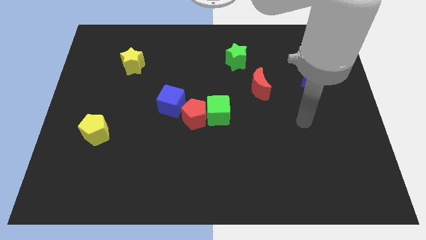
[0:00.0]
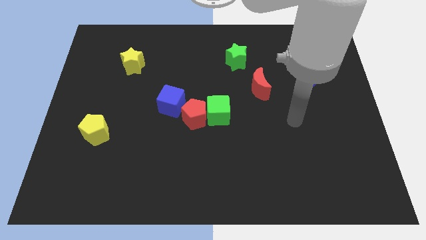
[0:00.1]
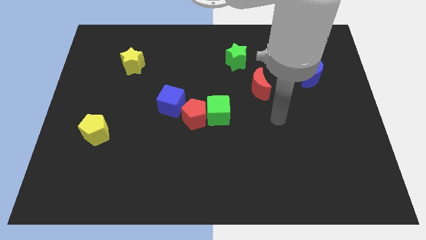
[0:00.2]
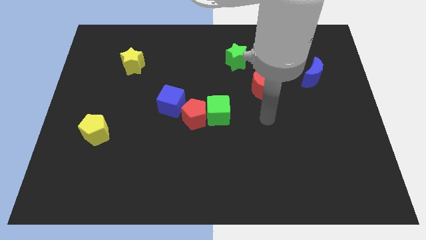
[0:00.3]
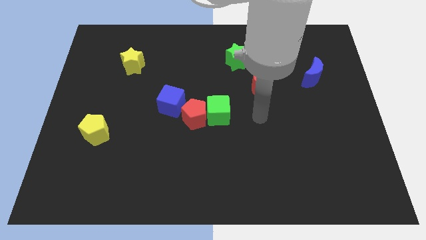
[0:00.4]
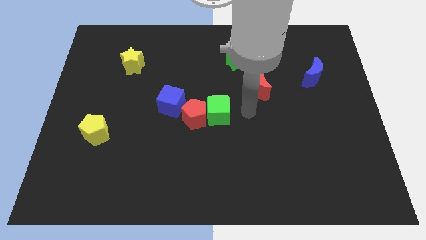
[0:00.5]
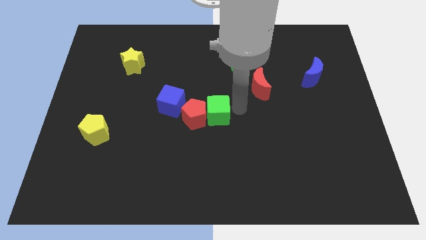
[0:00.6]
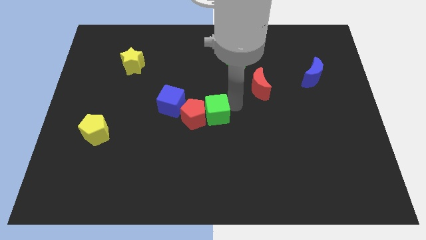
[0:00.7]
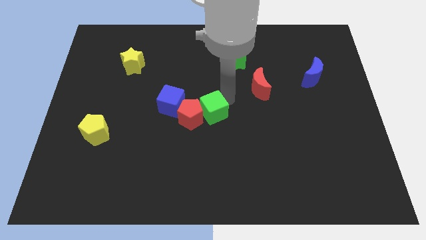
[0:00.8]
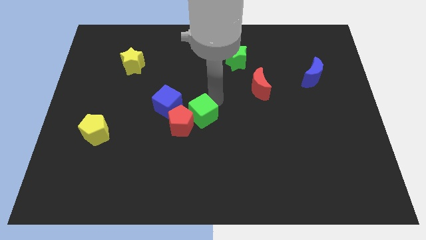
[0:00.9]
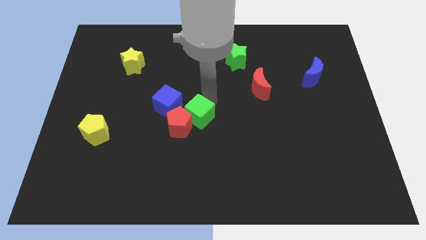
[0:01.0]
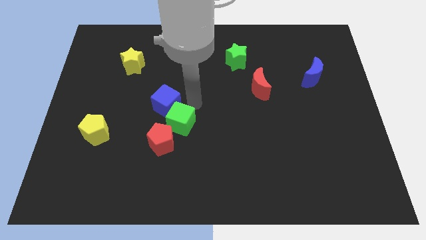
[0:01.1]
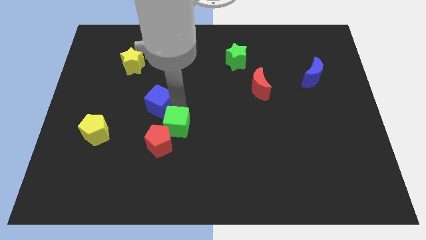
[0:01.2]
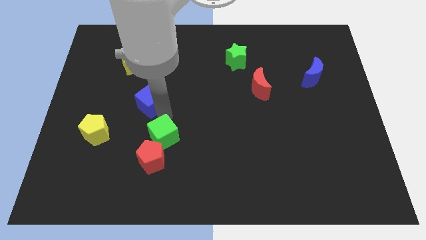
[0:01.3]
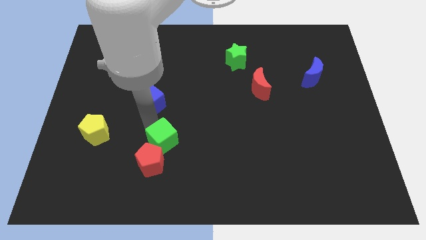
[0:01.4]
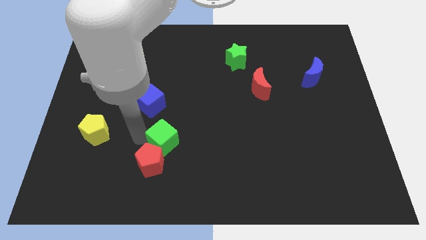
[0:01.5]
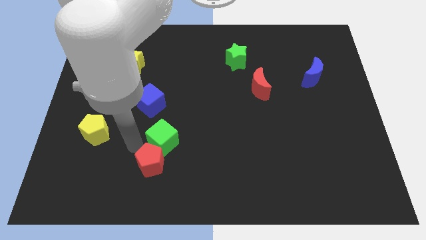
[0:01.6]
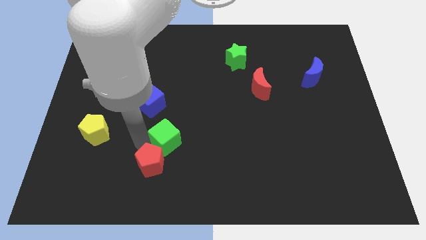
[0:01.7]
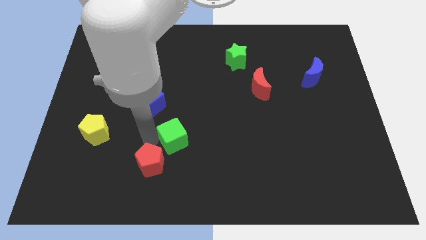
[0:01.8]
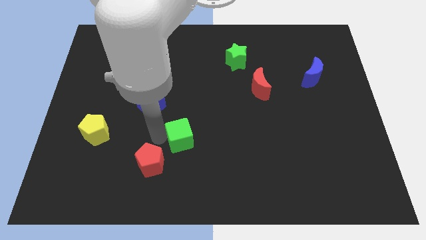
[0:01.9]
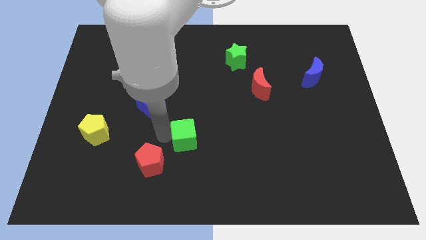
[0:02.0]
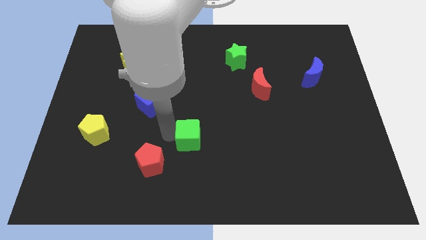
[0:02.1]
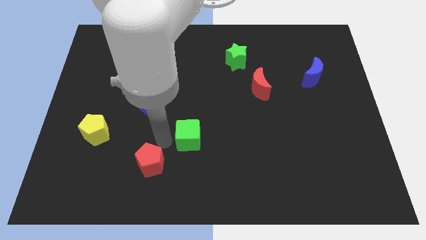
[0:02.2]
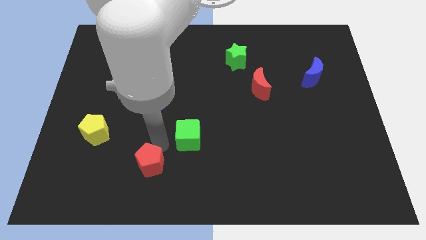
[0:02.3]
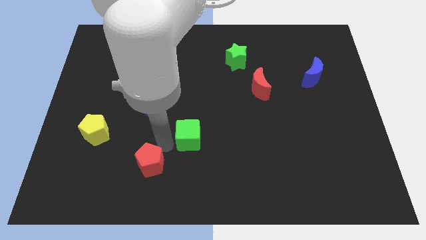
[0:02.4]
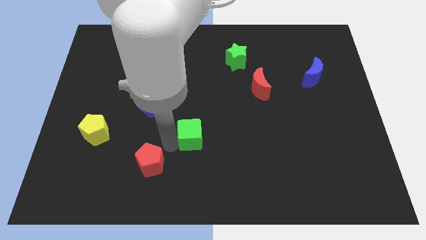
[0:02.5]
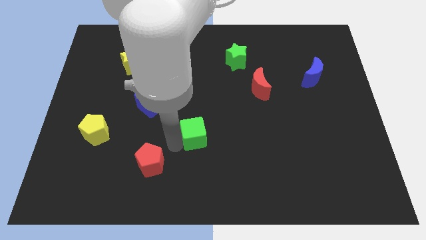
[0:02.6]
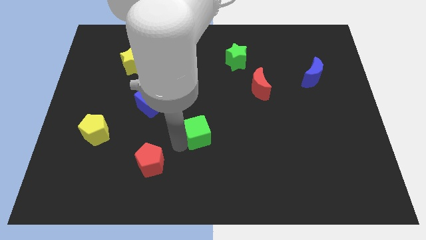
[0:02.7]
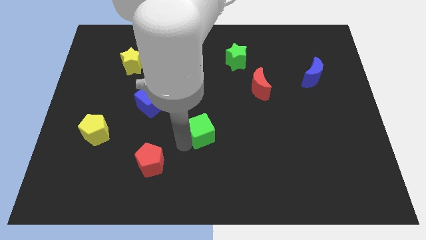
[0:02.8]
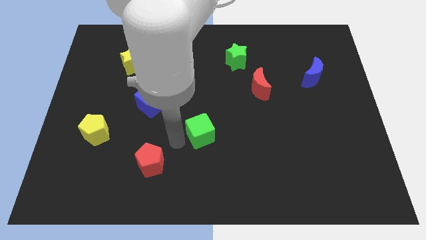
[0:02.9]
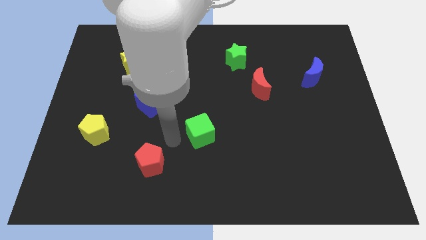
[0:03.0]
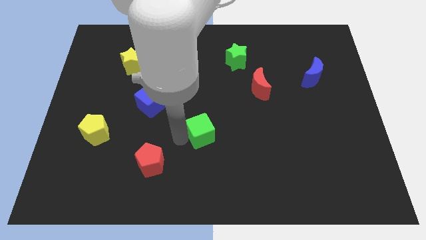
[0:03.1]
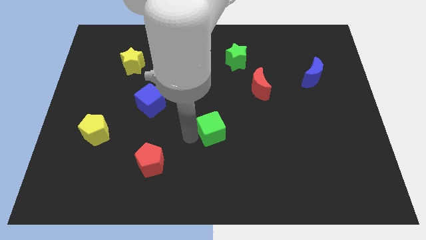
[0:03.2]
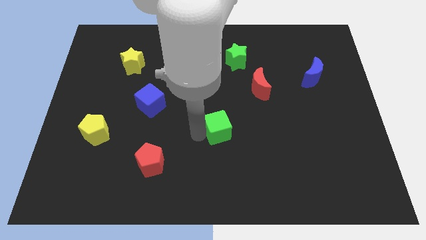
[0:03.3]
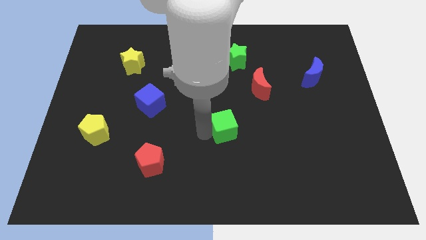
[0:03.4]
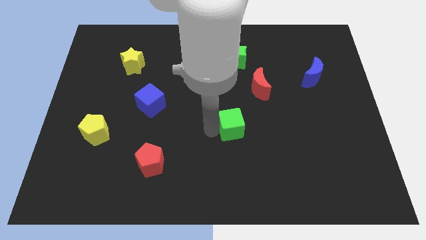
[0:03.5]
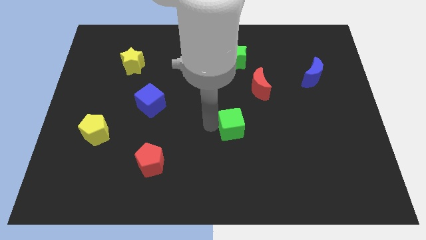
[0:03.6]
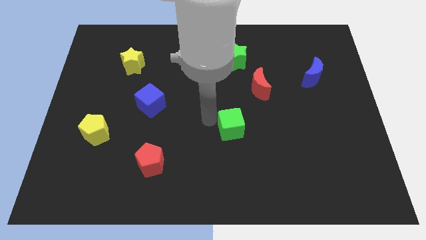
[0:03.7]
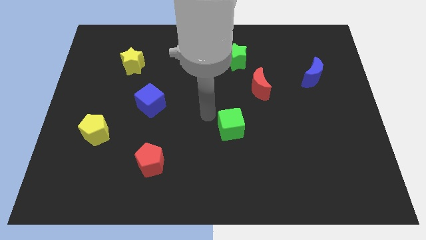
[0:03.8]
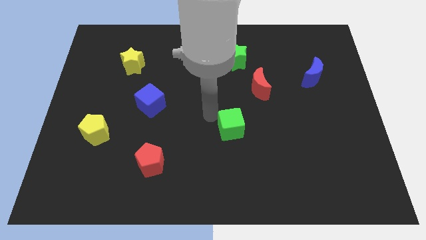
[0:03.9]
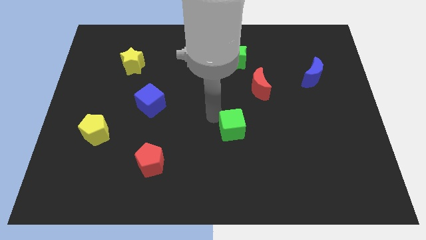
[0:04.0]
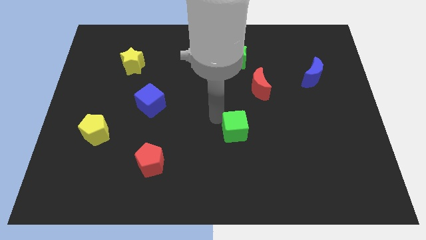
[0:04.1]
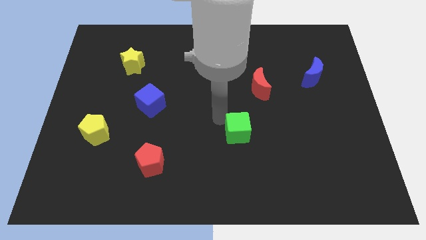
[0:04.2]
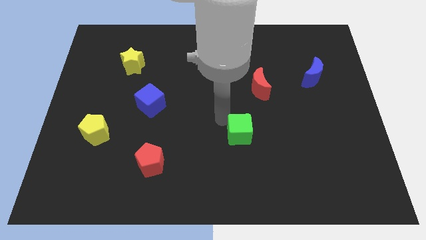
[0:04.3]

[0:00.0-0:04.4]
slightly slide the green cube down and right diagonally

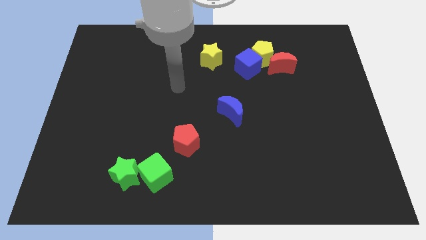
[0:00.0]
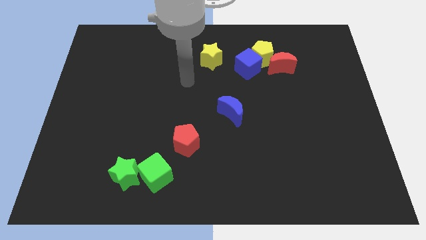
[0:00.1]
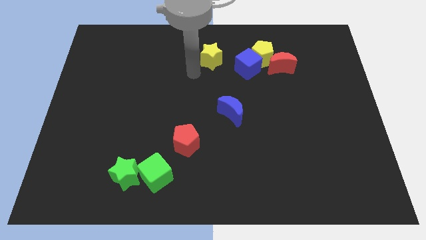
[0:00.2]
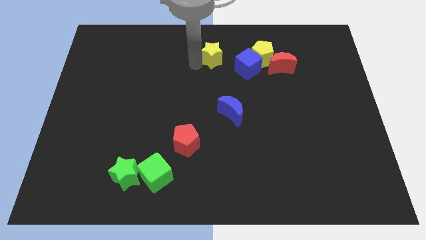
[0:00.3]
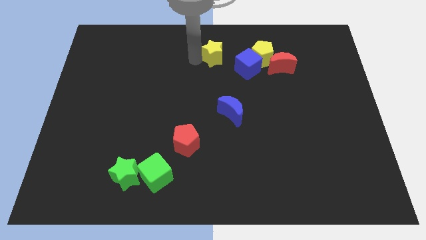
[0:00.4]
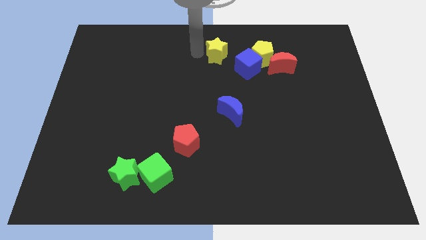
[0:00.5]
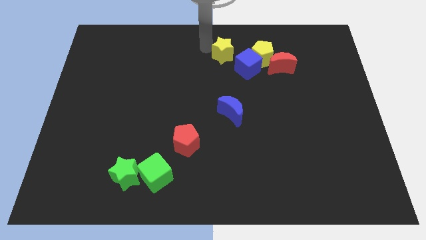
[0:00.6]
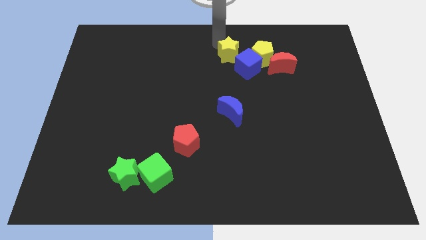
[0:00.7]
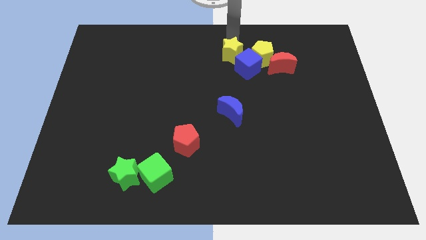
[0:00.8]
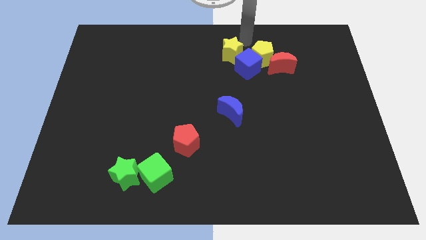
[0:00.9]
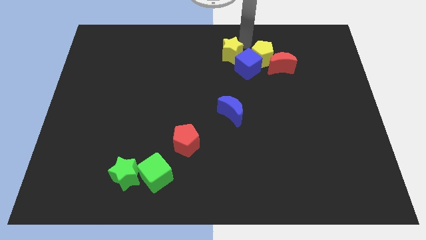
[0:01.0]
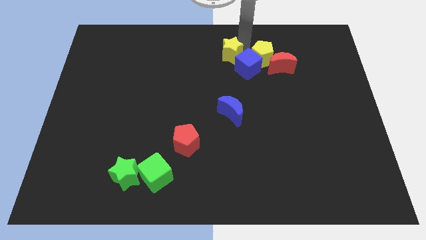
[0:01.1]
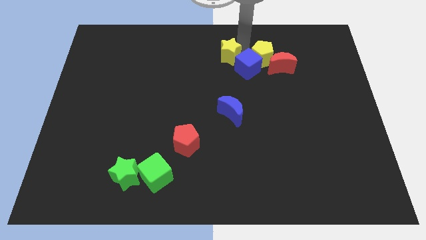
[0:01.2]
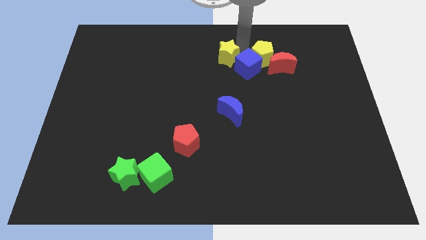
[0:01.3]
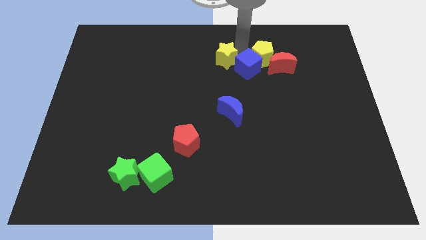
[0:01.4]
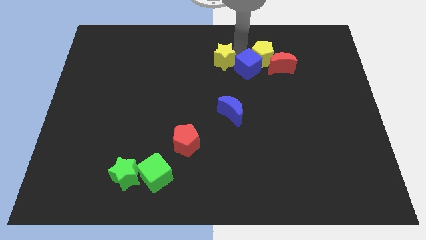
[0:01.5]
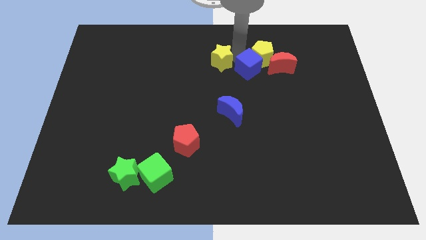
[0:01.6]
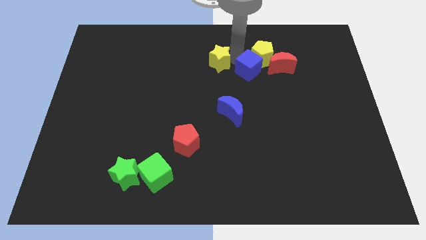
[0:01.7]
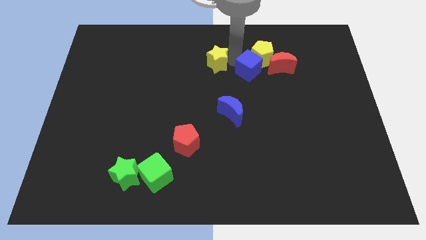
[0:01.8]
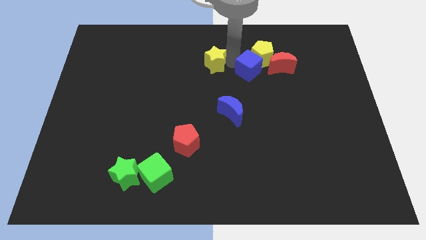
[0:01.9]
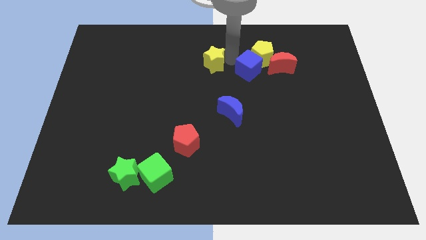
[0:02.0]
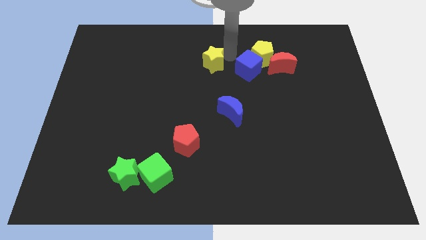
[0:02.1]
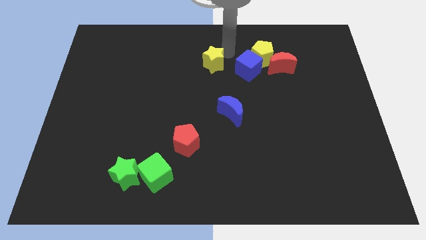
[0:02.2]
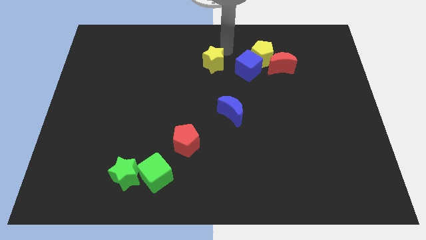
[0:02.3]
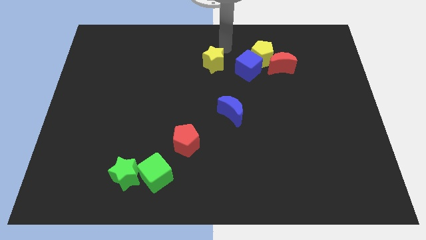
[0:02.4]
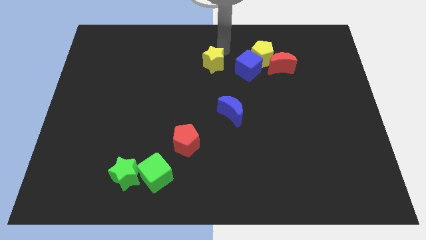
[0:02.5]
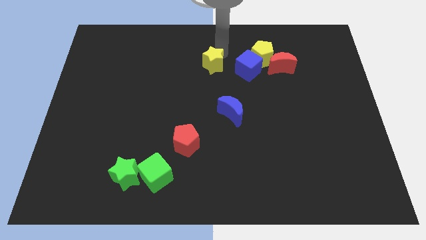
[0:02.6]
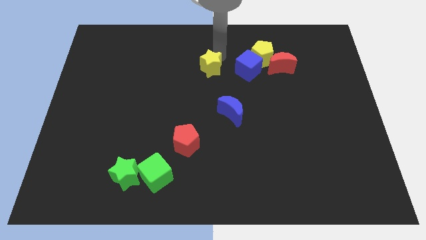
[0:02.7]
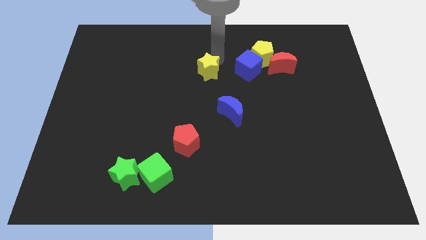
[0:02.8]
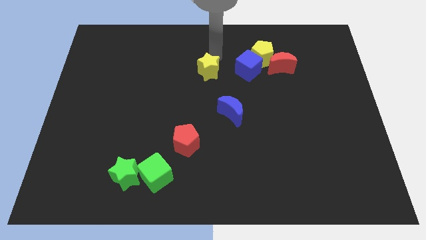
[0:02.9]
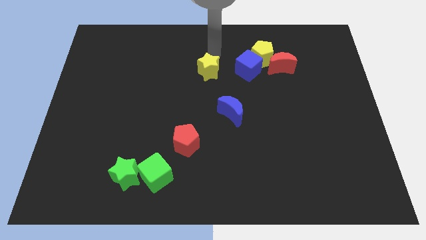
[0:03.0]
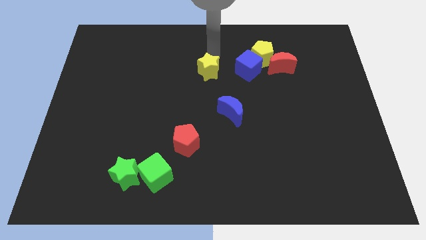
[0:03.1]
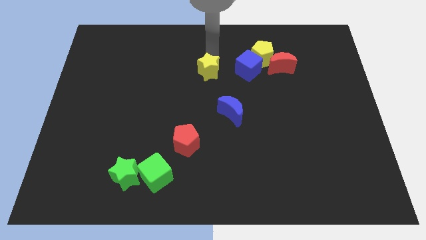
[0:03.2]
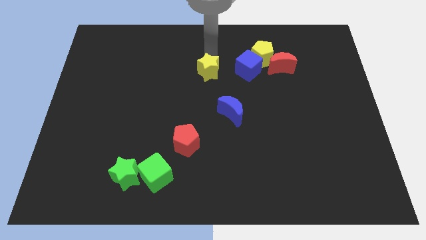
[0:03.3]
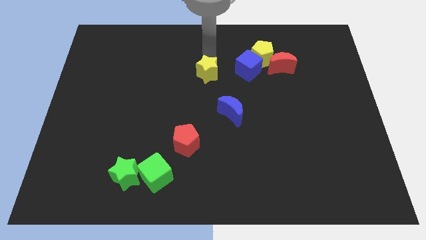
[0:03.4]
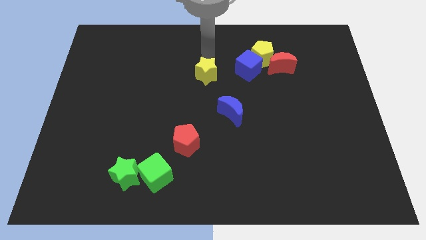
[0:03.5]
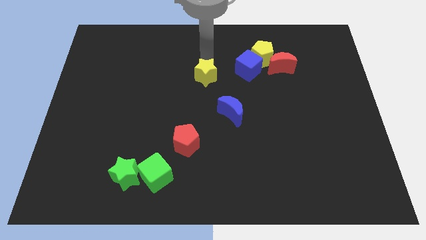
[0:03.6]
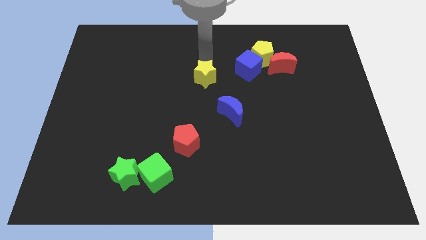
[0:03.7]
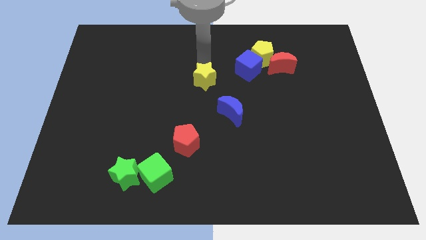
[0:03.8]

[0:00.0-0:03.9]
slide the yellow star slightly downwards
